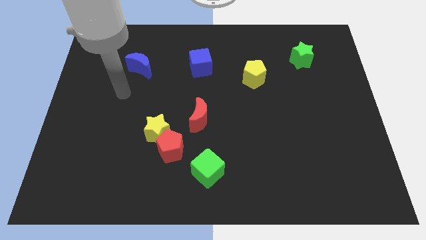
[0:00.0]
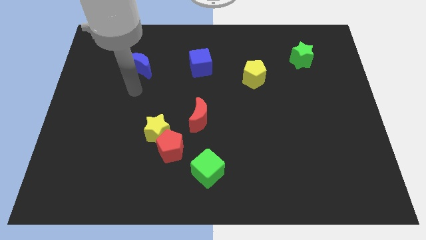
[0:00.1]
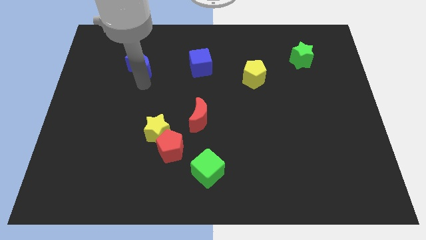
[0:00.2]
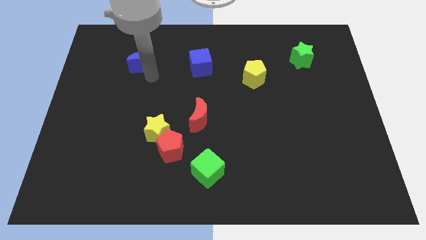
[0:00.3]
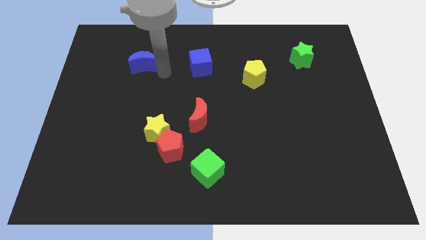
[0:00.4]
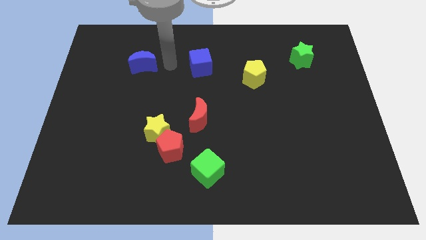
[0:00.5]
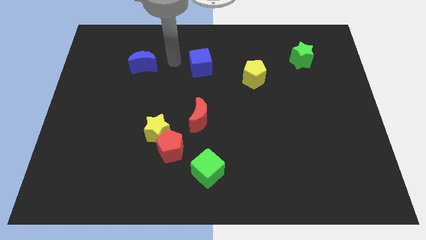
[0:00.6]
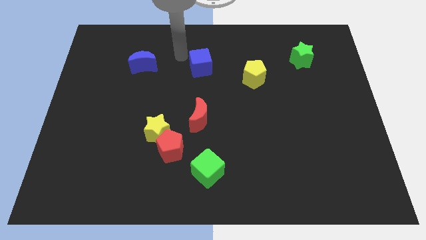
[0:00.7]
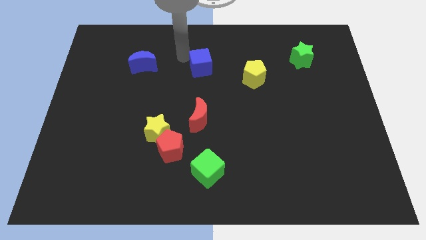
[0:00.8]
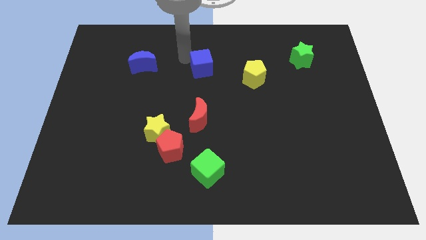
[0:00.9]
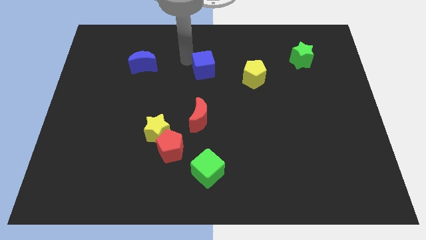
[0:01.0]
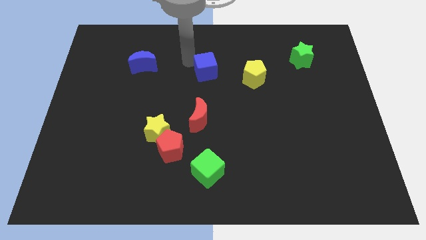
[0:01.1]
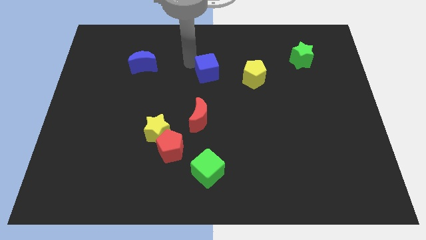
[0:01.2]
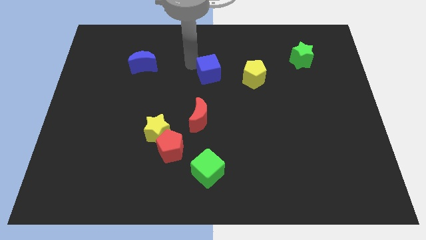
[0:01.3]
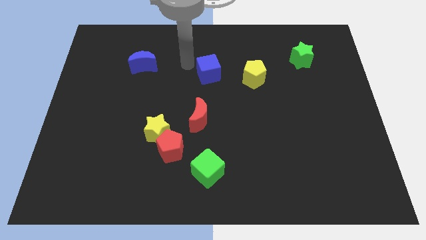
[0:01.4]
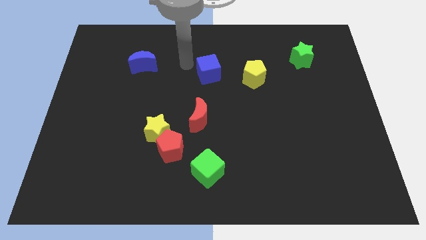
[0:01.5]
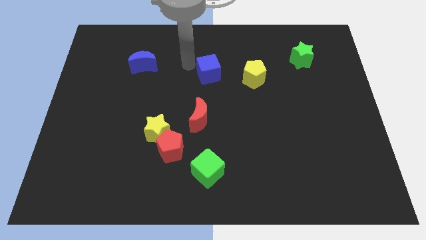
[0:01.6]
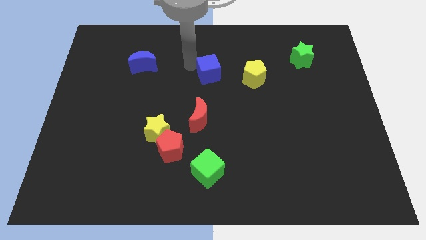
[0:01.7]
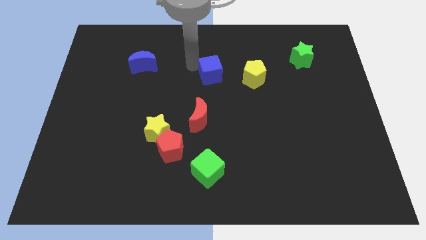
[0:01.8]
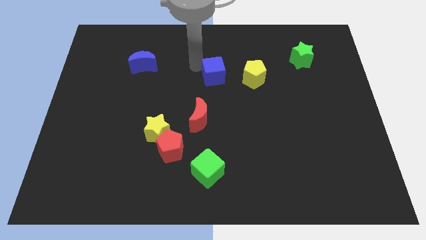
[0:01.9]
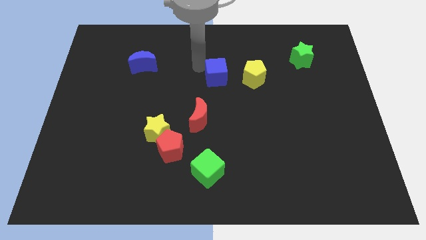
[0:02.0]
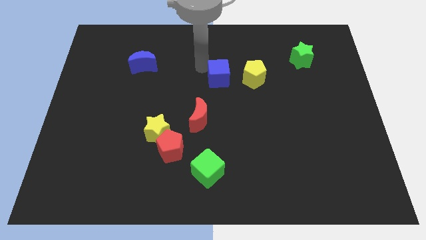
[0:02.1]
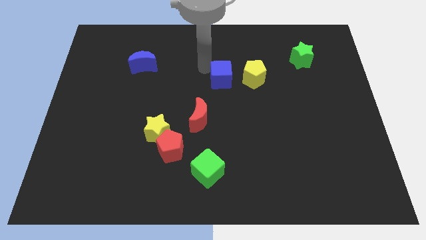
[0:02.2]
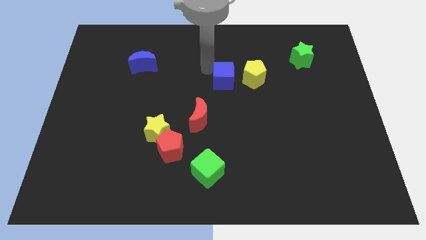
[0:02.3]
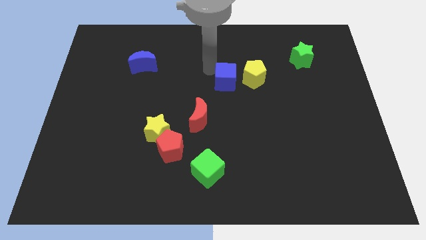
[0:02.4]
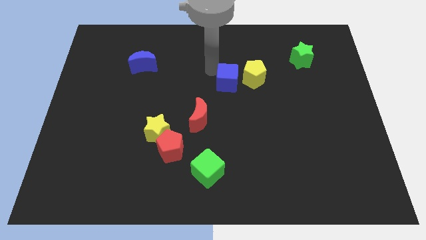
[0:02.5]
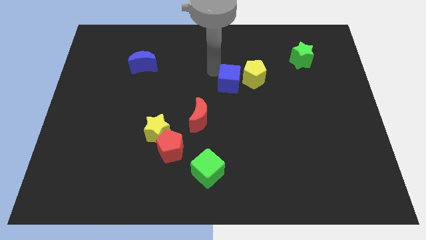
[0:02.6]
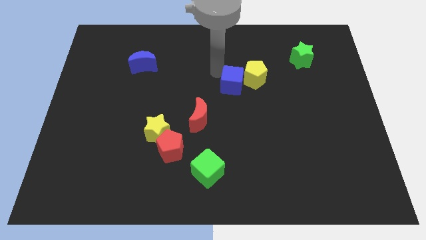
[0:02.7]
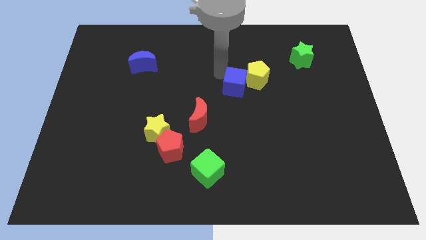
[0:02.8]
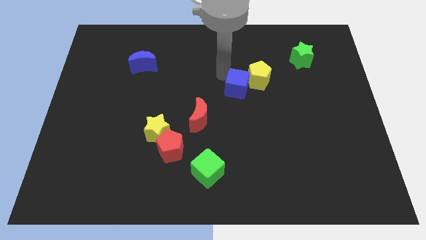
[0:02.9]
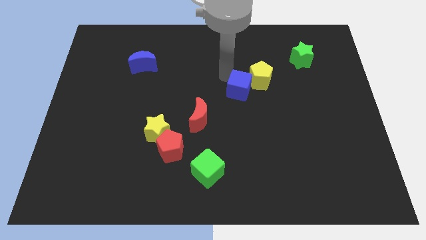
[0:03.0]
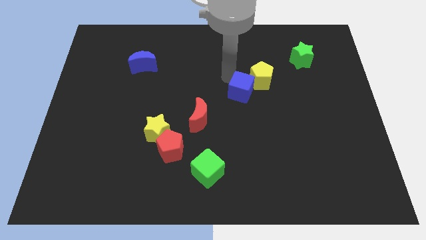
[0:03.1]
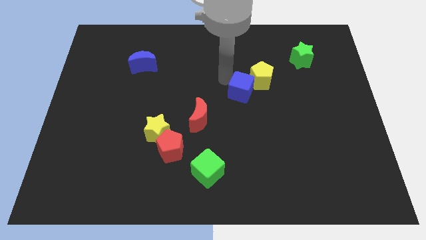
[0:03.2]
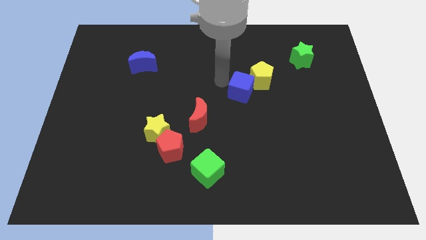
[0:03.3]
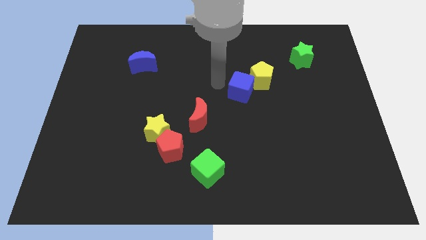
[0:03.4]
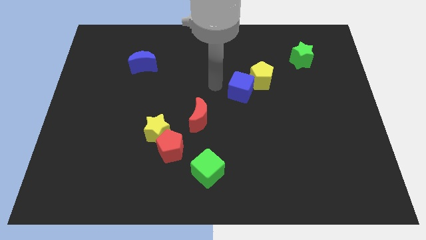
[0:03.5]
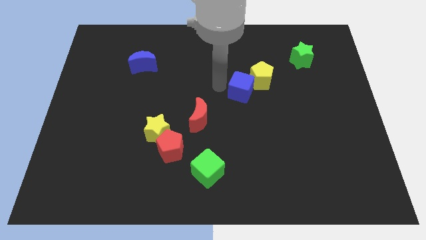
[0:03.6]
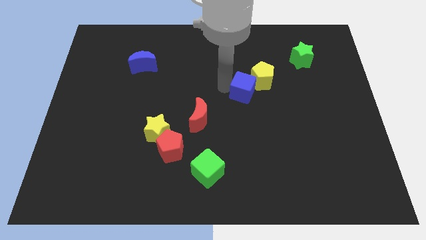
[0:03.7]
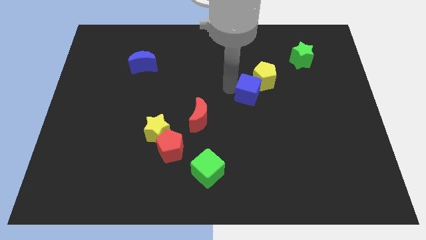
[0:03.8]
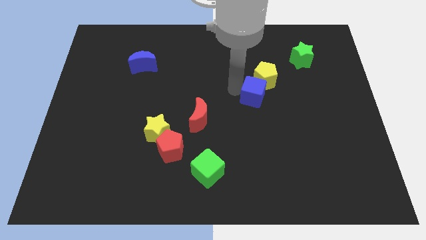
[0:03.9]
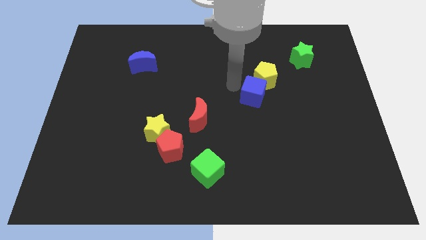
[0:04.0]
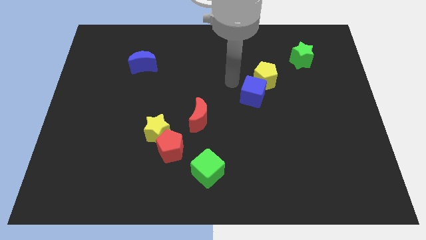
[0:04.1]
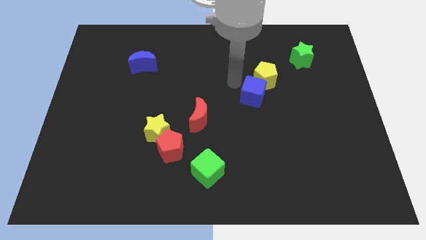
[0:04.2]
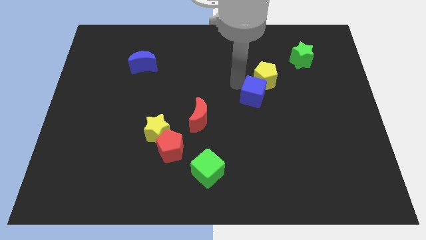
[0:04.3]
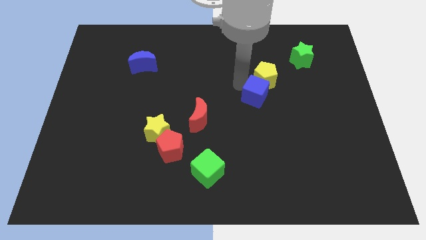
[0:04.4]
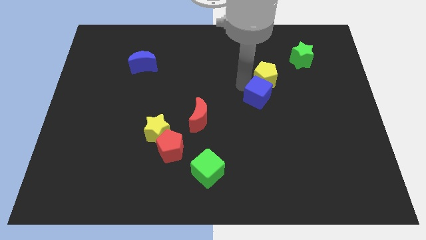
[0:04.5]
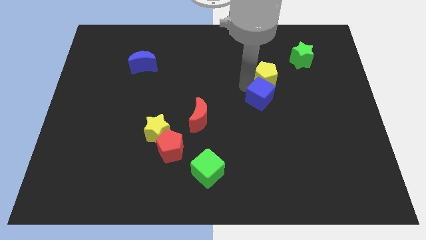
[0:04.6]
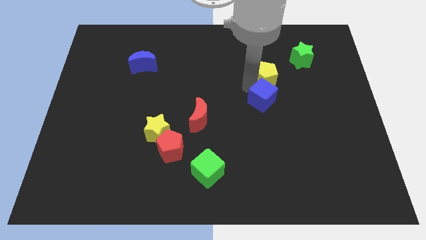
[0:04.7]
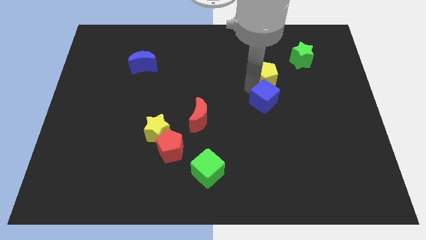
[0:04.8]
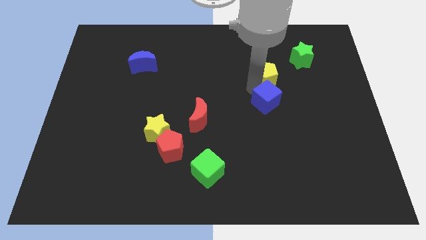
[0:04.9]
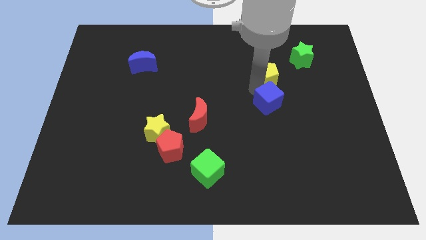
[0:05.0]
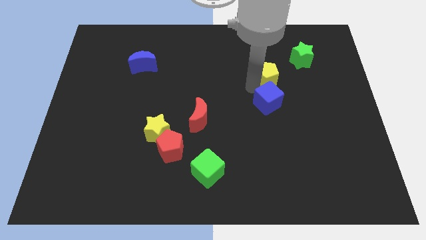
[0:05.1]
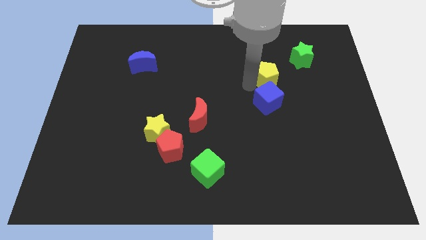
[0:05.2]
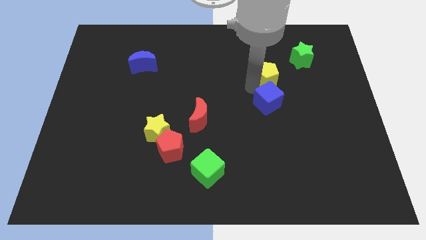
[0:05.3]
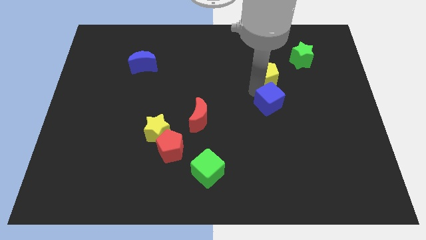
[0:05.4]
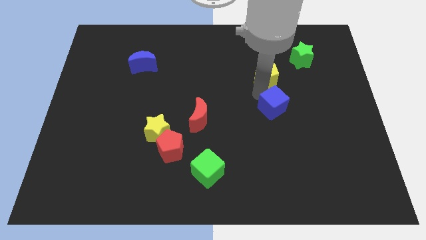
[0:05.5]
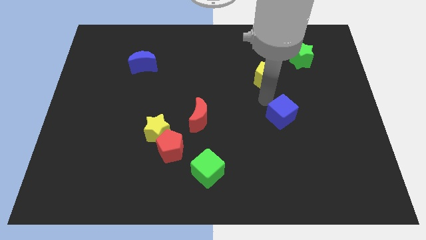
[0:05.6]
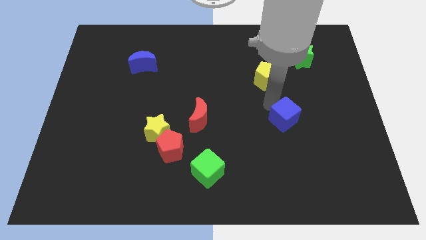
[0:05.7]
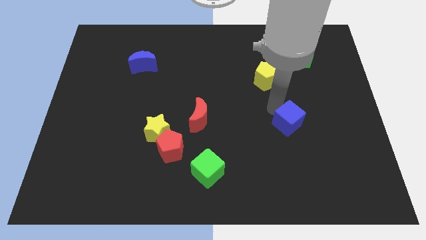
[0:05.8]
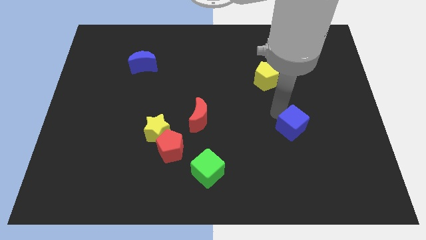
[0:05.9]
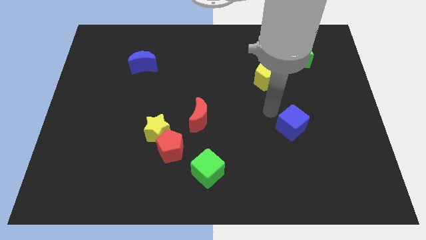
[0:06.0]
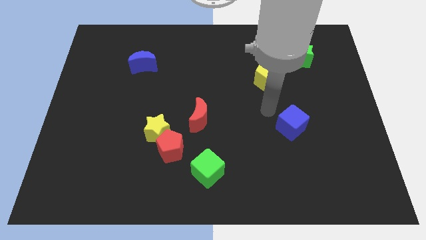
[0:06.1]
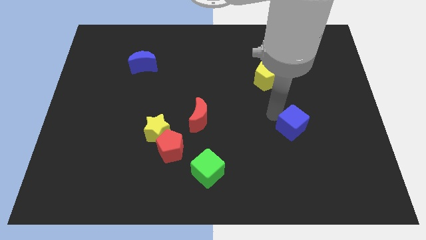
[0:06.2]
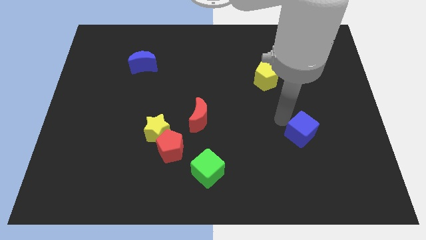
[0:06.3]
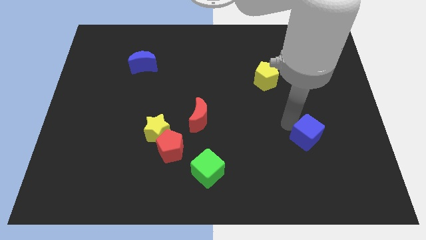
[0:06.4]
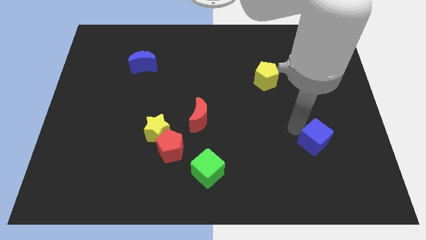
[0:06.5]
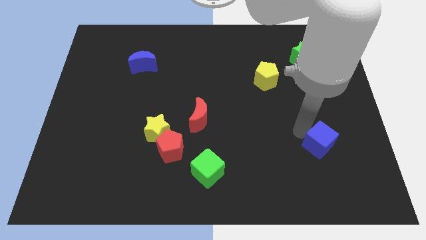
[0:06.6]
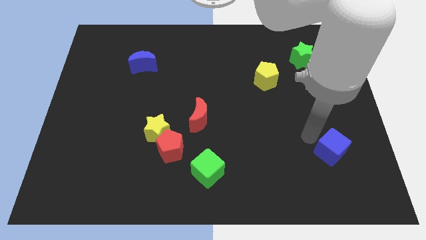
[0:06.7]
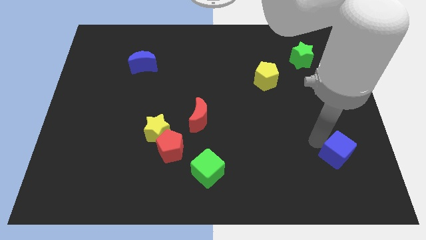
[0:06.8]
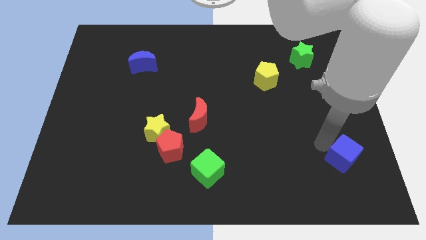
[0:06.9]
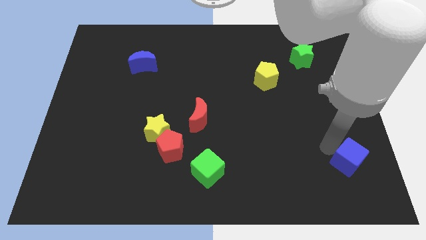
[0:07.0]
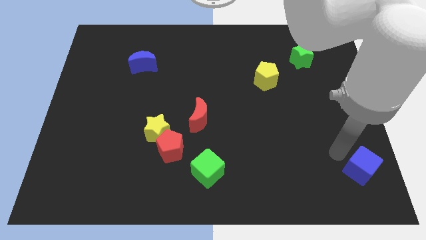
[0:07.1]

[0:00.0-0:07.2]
move the blue cube to the lower right corner
